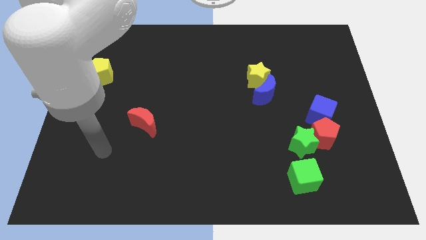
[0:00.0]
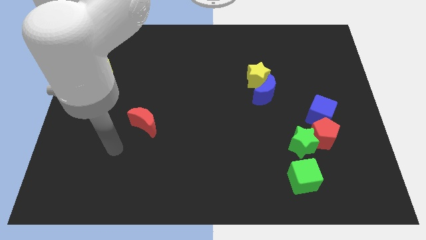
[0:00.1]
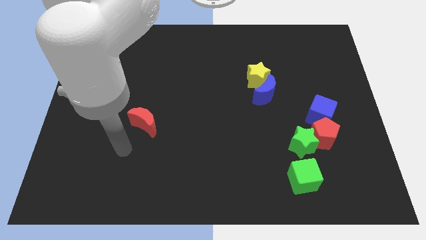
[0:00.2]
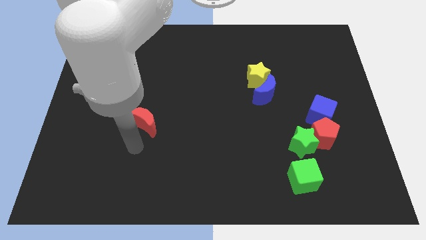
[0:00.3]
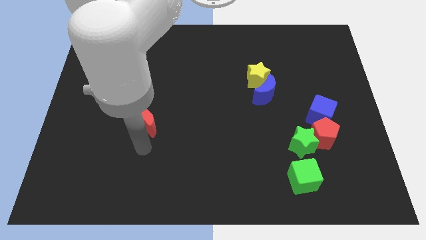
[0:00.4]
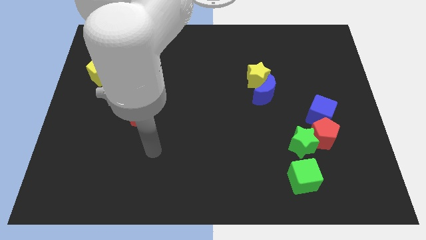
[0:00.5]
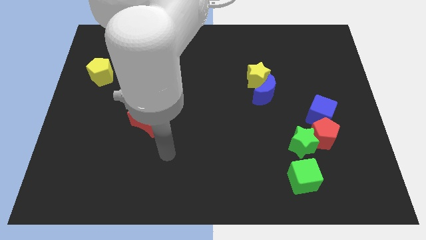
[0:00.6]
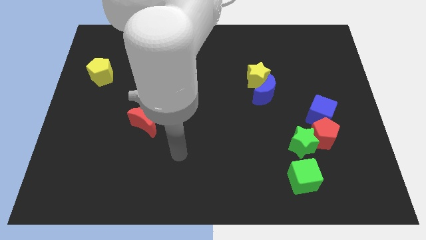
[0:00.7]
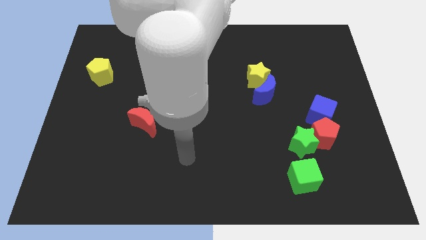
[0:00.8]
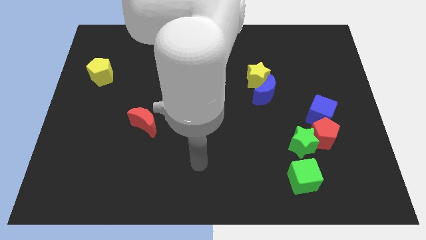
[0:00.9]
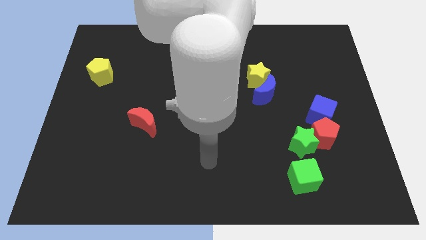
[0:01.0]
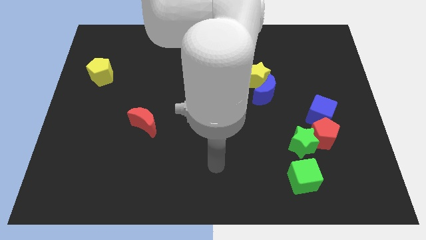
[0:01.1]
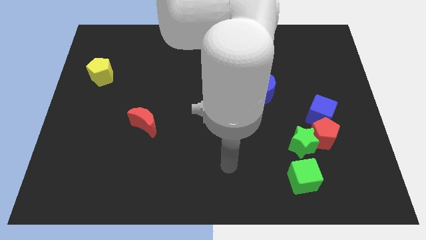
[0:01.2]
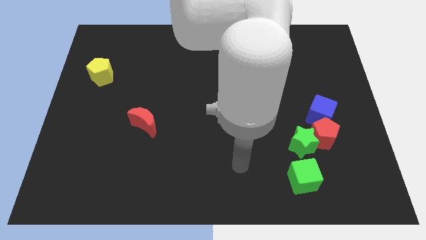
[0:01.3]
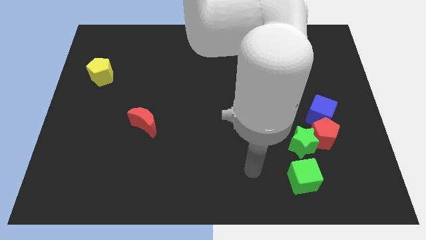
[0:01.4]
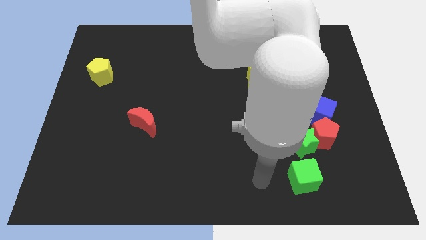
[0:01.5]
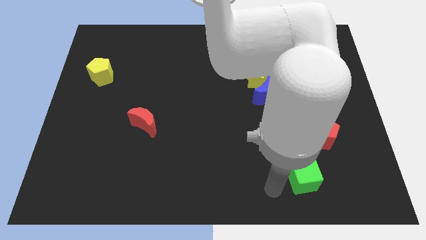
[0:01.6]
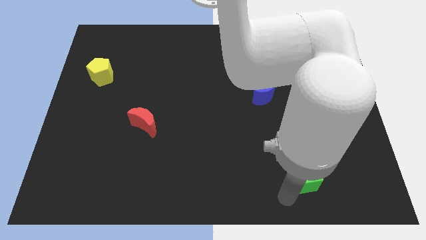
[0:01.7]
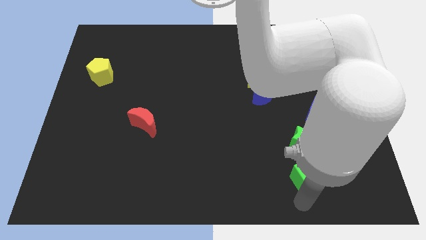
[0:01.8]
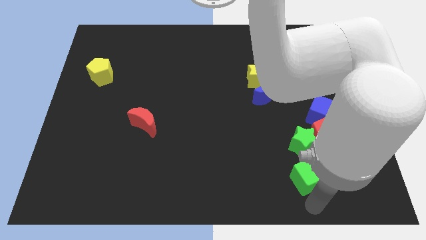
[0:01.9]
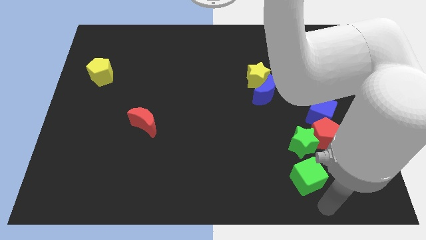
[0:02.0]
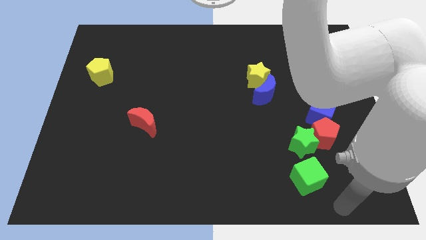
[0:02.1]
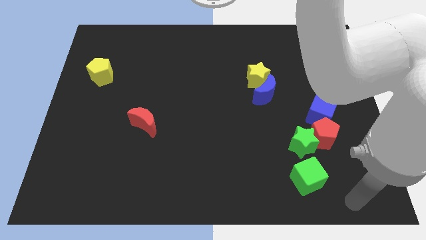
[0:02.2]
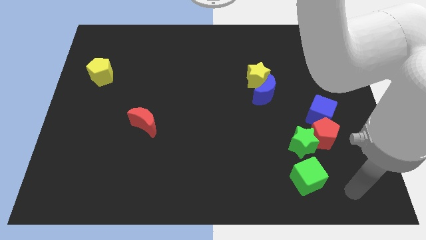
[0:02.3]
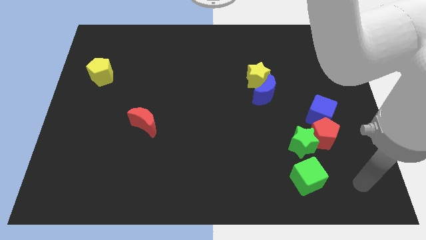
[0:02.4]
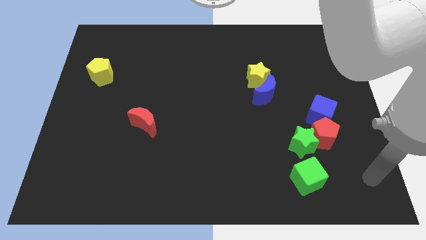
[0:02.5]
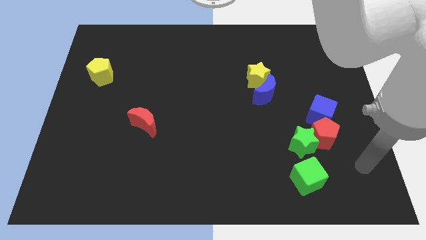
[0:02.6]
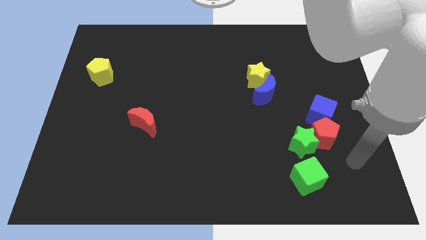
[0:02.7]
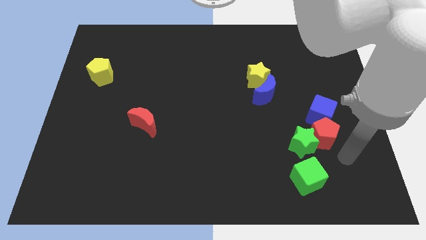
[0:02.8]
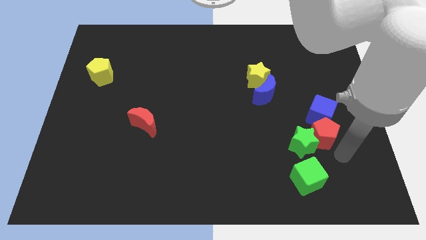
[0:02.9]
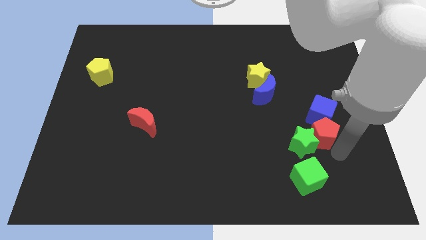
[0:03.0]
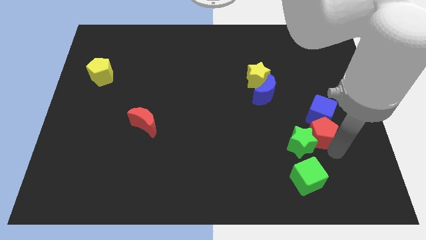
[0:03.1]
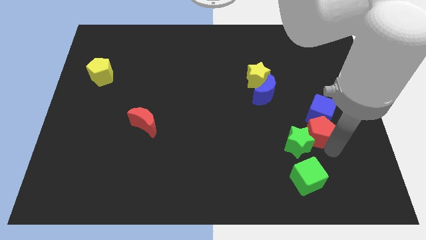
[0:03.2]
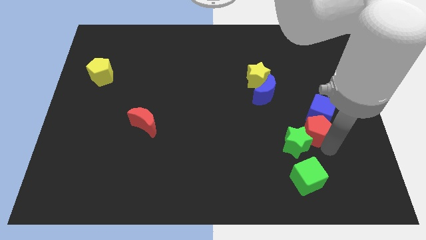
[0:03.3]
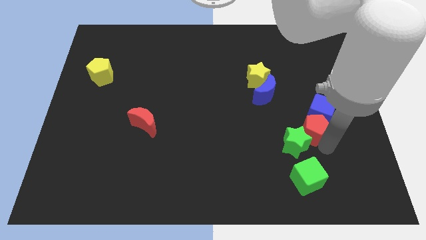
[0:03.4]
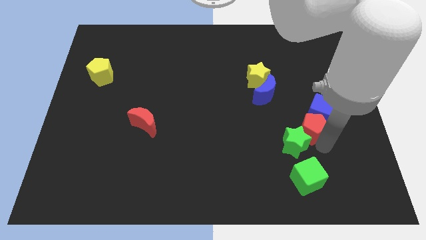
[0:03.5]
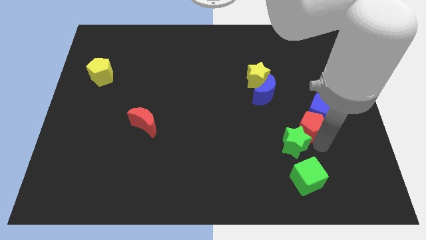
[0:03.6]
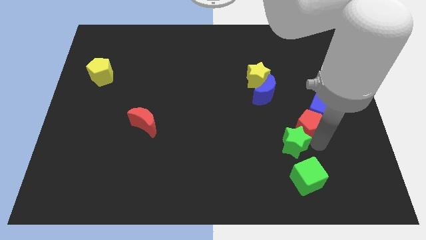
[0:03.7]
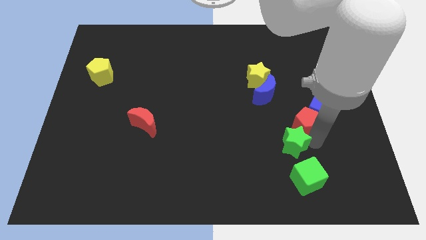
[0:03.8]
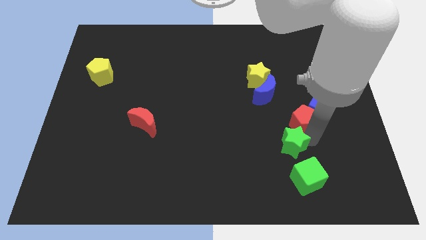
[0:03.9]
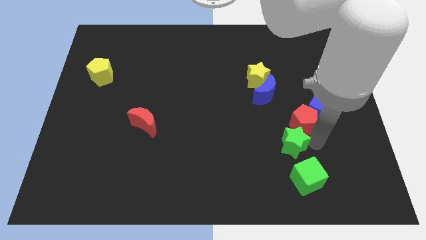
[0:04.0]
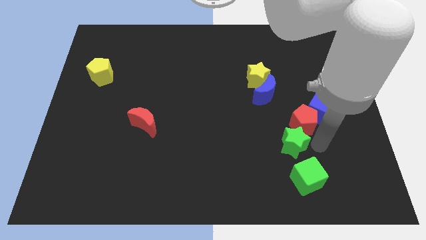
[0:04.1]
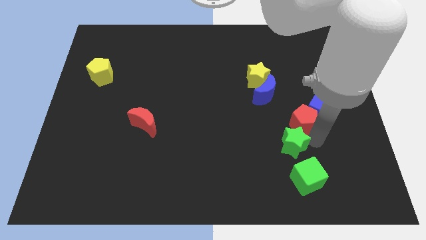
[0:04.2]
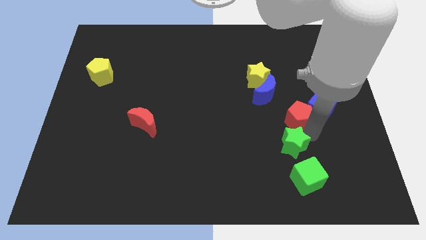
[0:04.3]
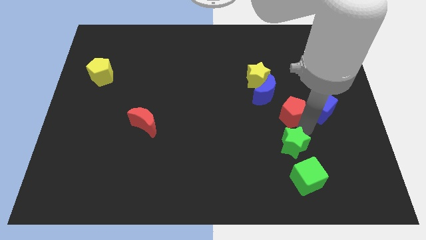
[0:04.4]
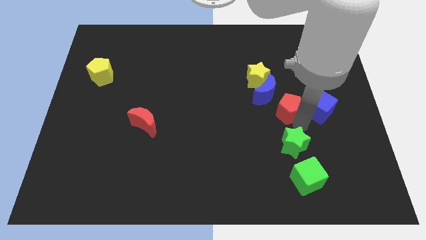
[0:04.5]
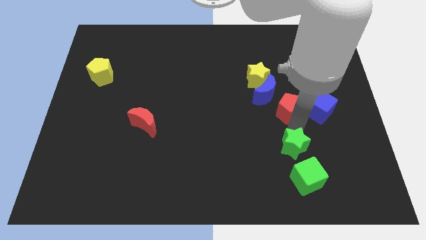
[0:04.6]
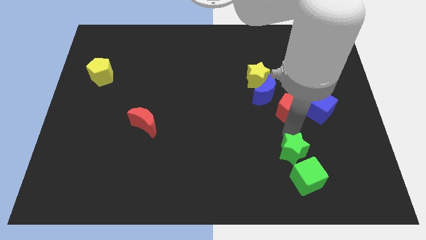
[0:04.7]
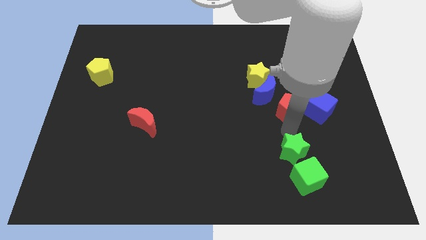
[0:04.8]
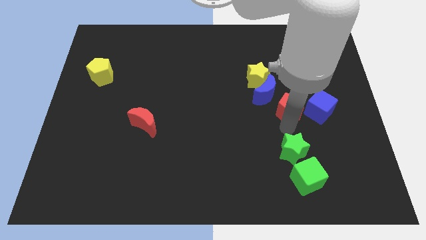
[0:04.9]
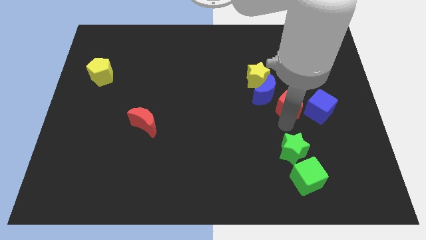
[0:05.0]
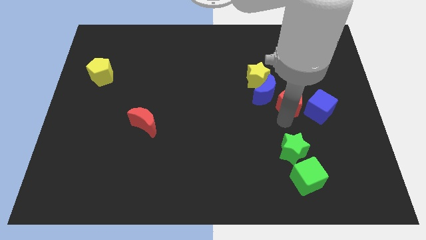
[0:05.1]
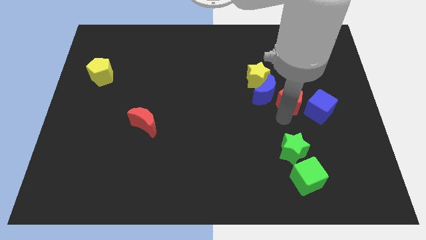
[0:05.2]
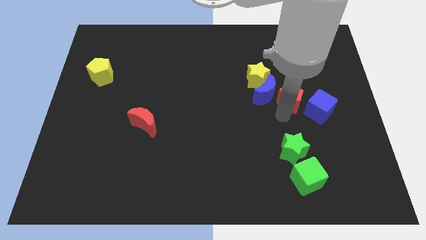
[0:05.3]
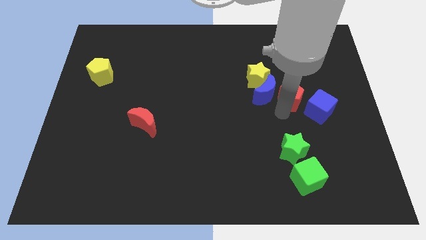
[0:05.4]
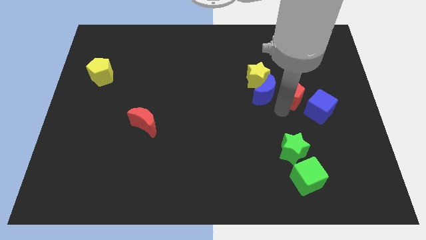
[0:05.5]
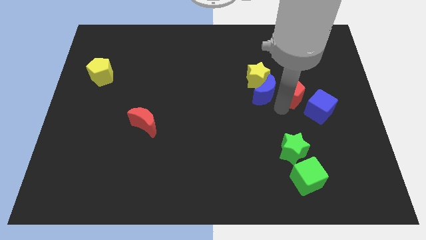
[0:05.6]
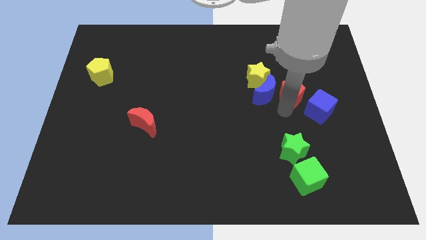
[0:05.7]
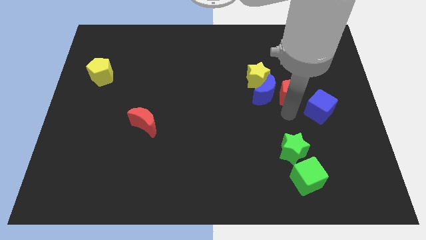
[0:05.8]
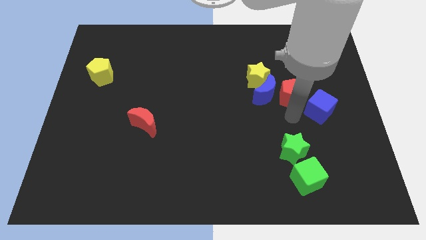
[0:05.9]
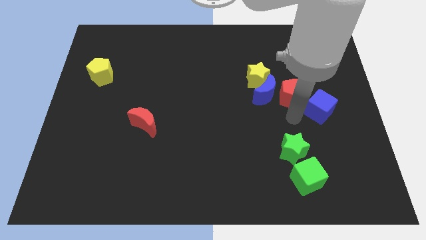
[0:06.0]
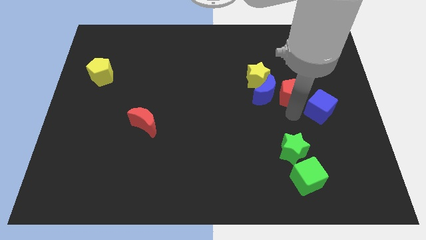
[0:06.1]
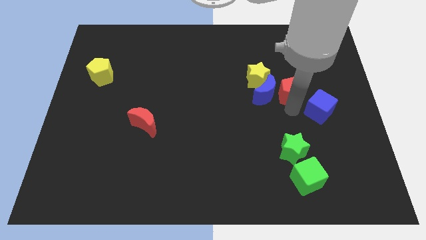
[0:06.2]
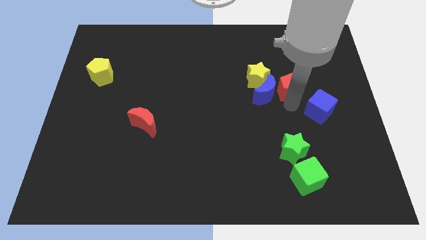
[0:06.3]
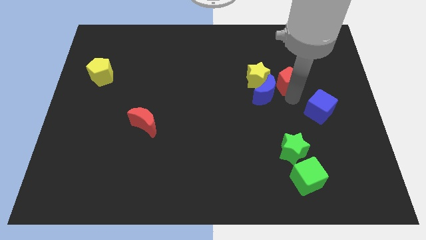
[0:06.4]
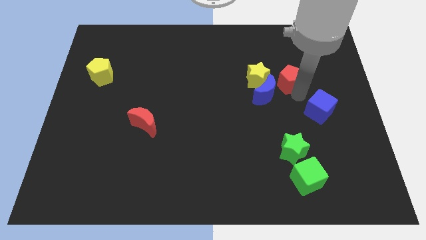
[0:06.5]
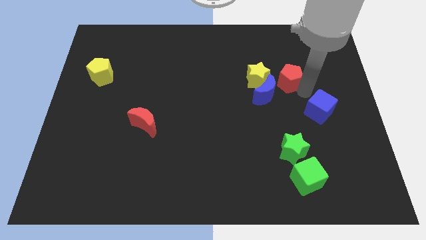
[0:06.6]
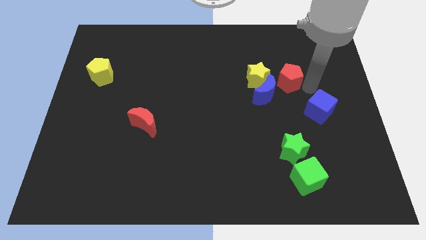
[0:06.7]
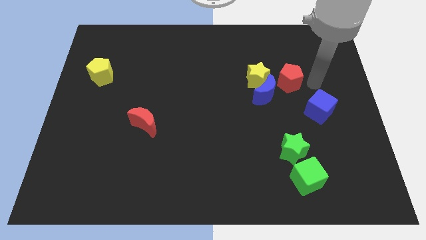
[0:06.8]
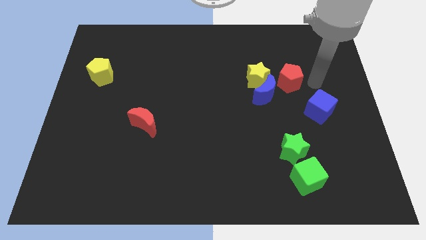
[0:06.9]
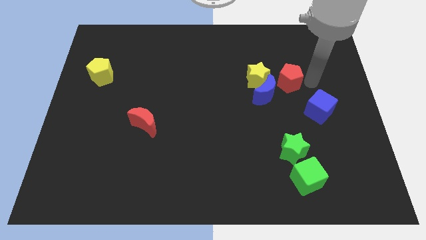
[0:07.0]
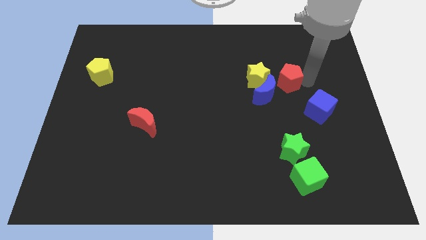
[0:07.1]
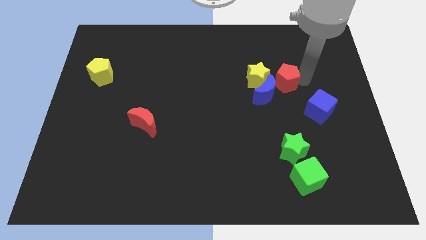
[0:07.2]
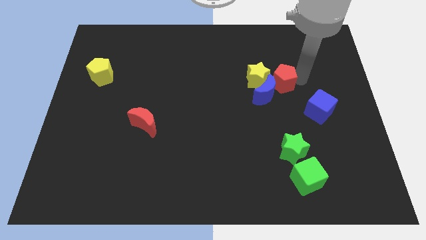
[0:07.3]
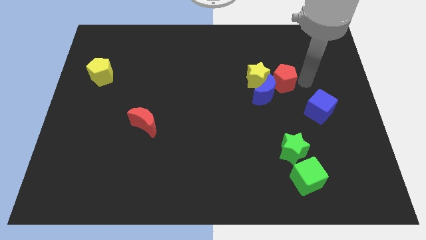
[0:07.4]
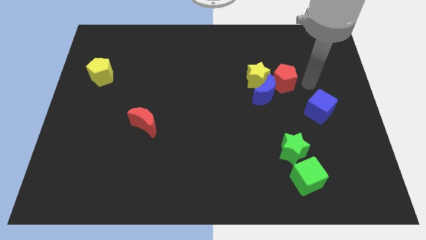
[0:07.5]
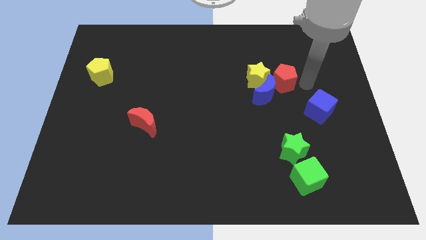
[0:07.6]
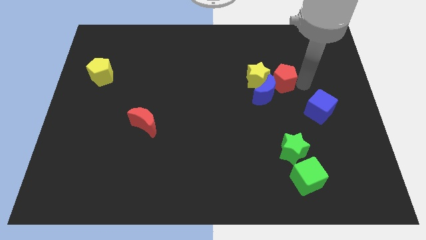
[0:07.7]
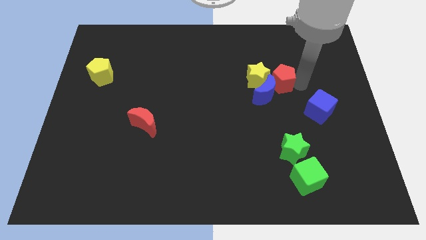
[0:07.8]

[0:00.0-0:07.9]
move the red pentagon close to the yellow star
